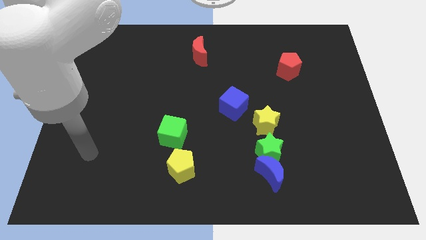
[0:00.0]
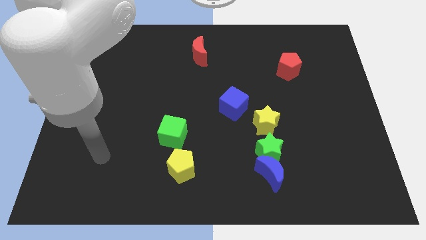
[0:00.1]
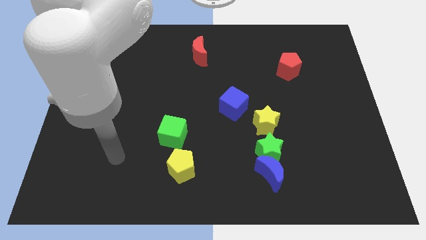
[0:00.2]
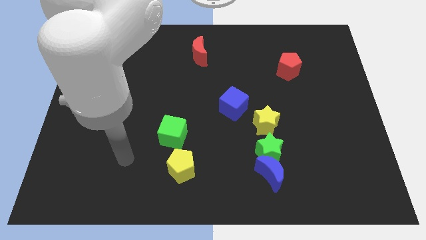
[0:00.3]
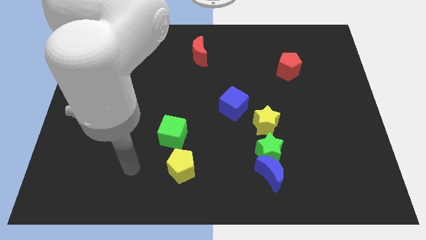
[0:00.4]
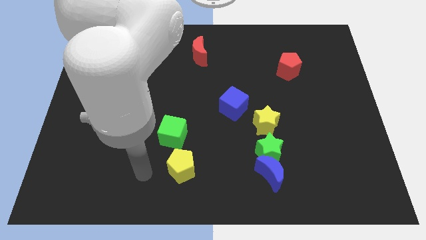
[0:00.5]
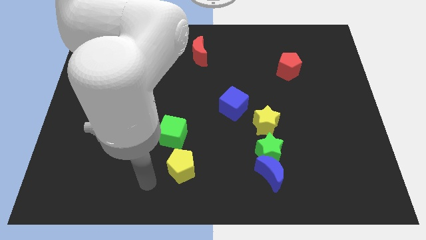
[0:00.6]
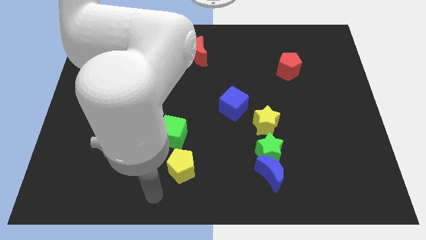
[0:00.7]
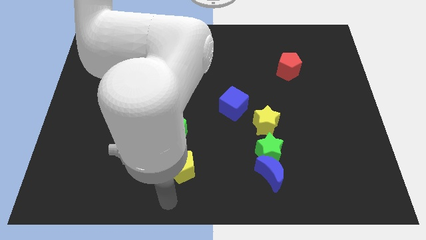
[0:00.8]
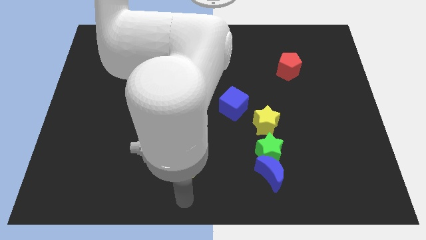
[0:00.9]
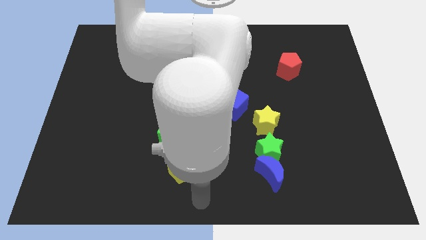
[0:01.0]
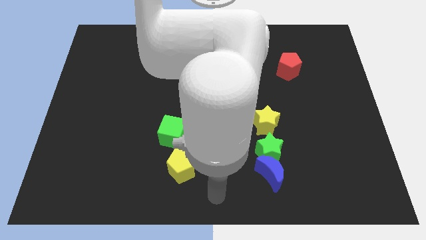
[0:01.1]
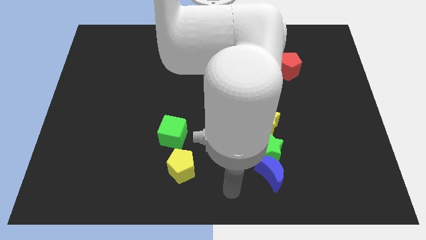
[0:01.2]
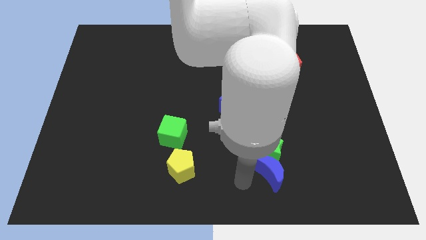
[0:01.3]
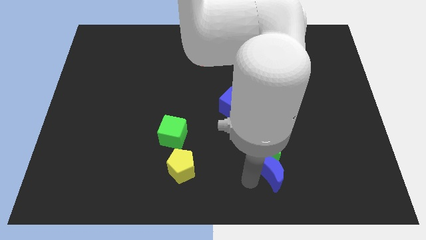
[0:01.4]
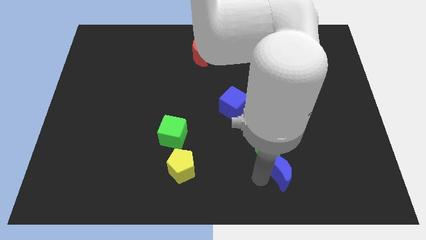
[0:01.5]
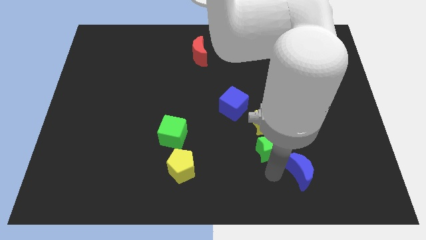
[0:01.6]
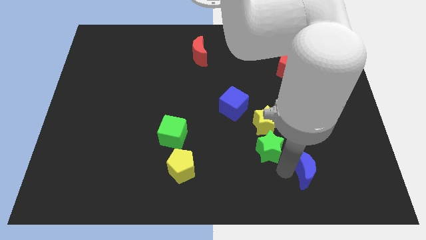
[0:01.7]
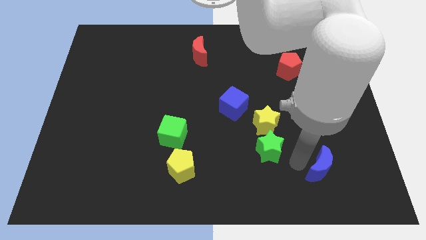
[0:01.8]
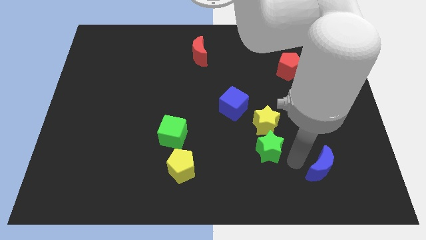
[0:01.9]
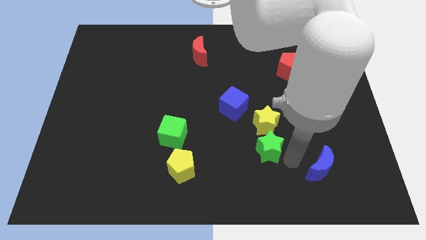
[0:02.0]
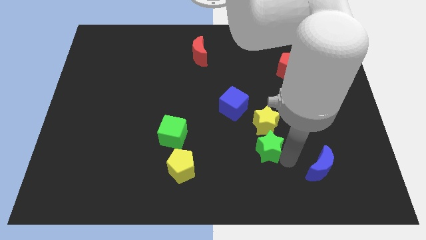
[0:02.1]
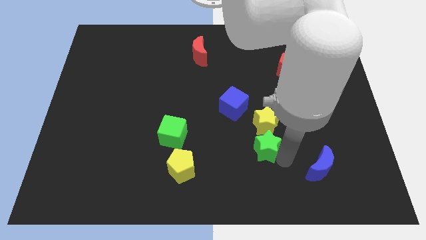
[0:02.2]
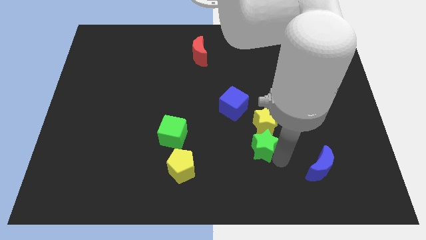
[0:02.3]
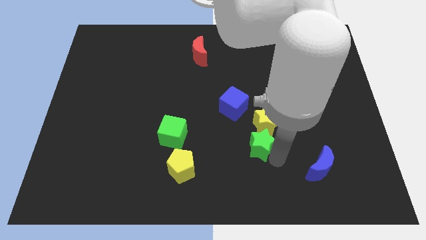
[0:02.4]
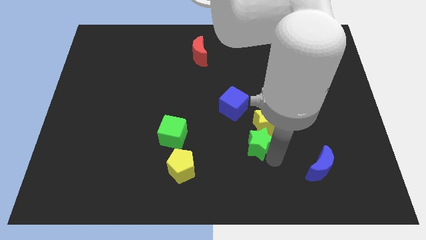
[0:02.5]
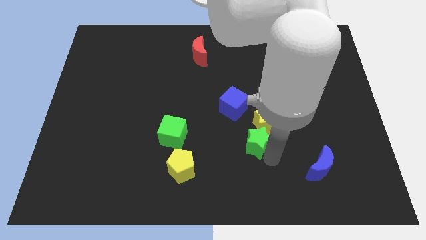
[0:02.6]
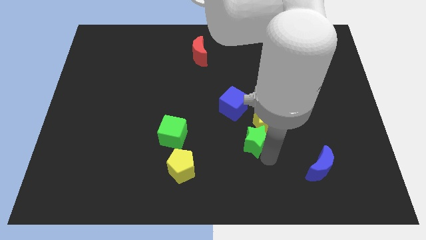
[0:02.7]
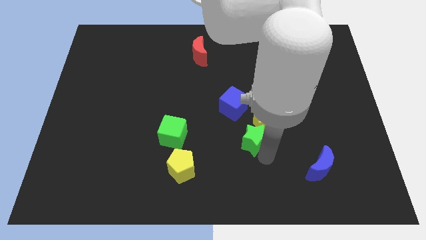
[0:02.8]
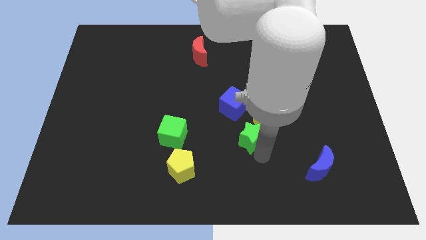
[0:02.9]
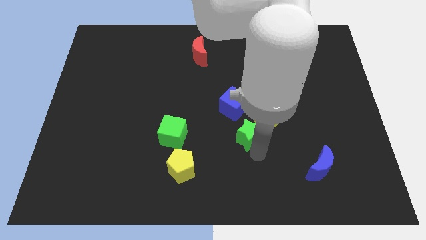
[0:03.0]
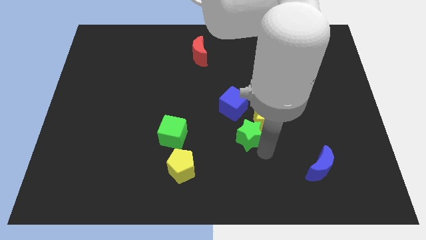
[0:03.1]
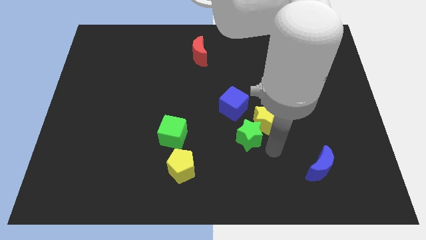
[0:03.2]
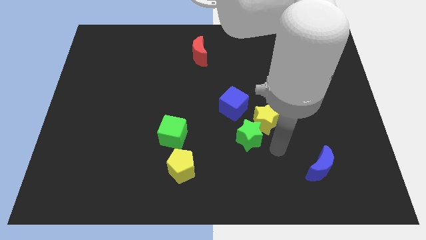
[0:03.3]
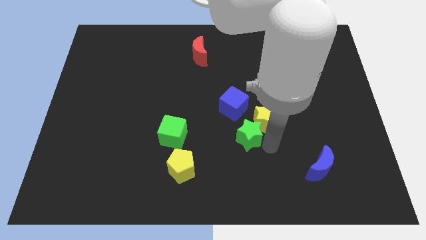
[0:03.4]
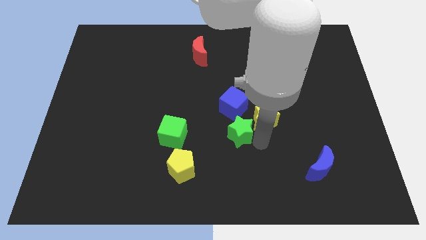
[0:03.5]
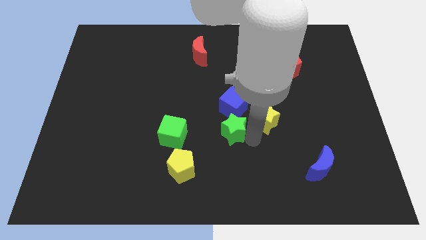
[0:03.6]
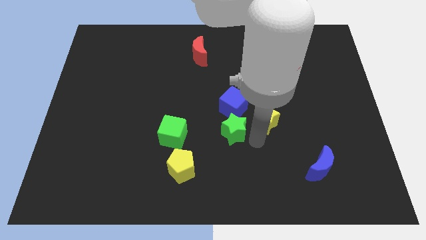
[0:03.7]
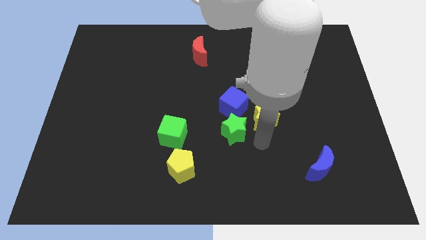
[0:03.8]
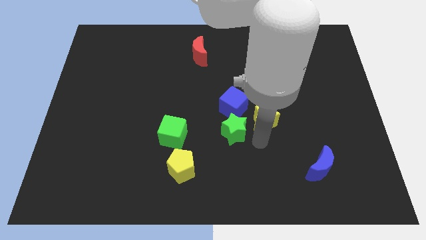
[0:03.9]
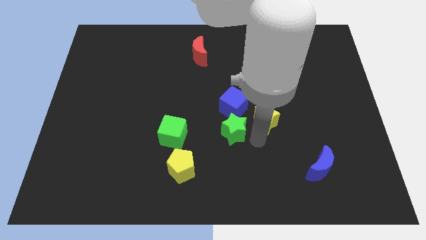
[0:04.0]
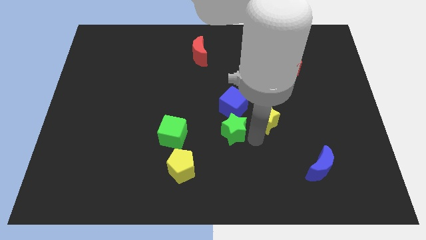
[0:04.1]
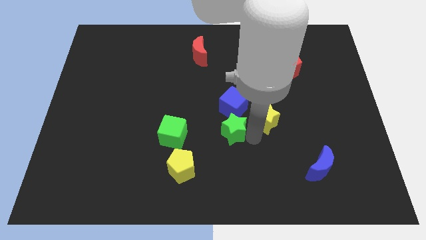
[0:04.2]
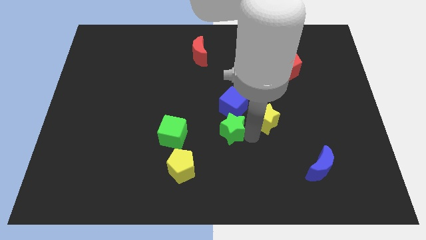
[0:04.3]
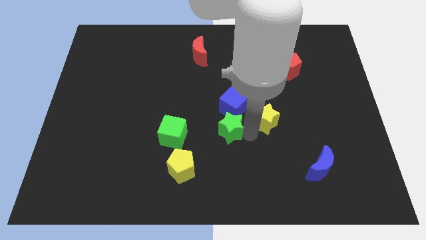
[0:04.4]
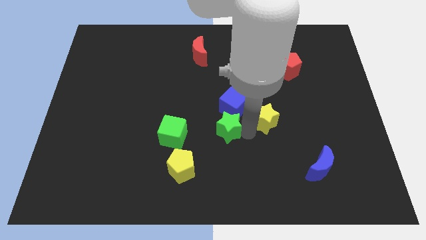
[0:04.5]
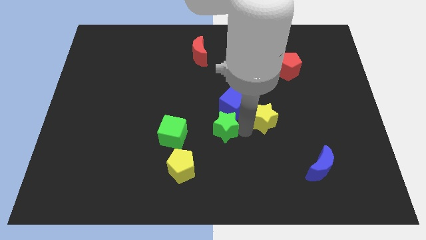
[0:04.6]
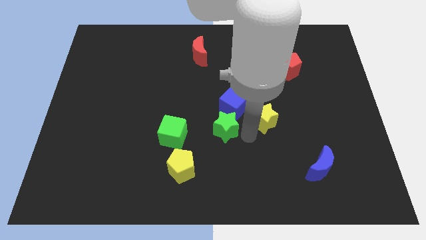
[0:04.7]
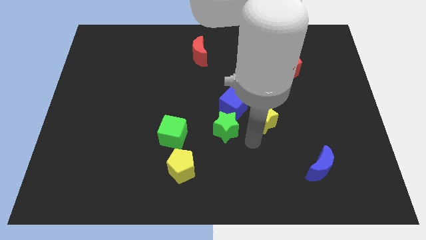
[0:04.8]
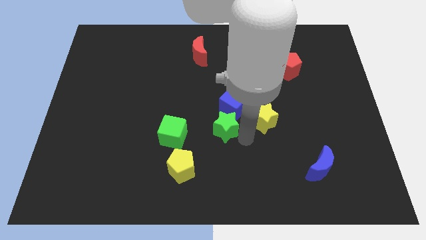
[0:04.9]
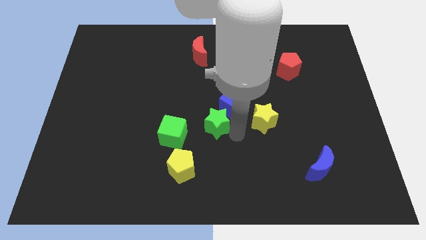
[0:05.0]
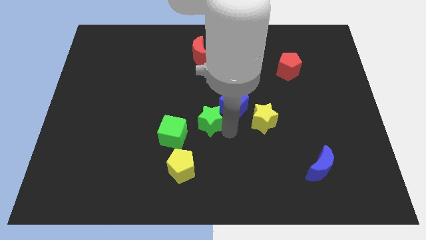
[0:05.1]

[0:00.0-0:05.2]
put the green star diagonally up and to the right of the green cube
